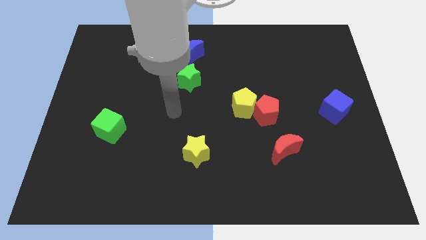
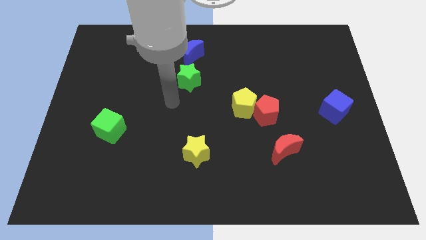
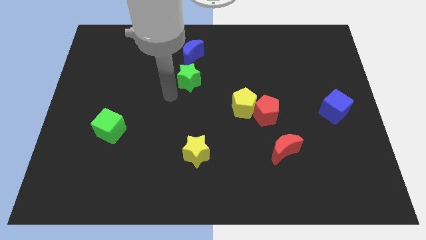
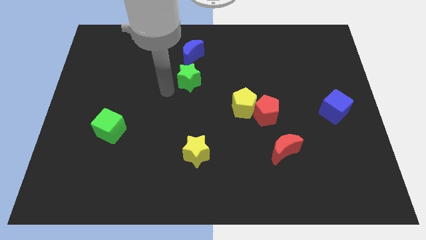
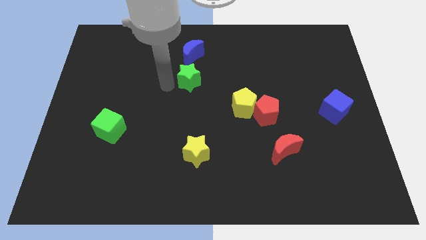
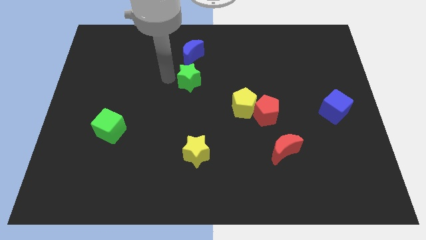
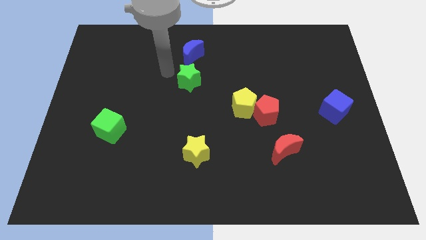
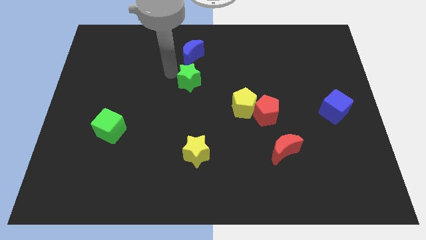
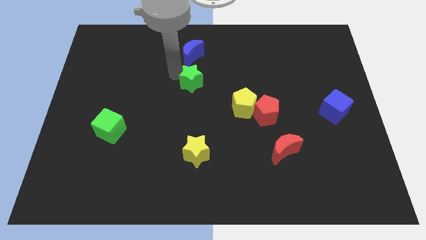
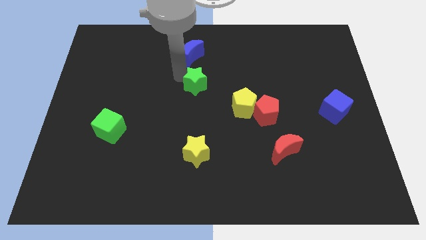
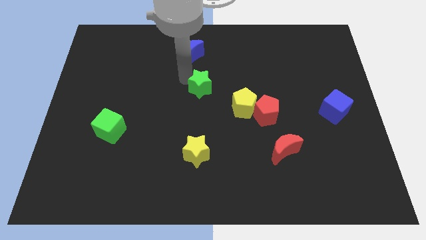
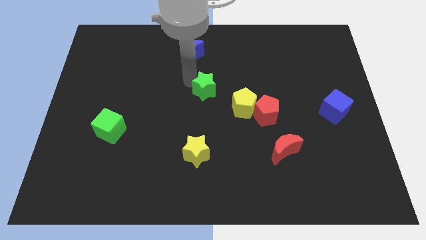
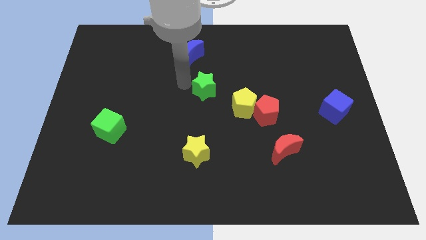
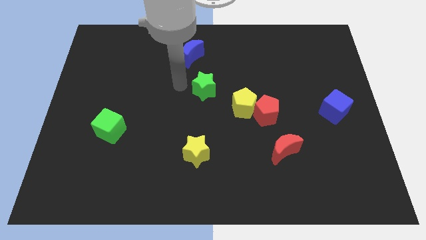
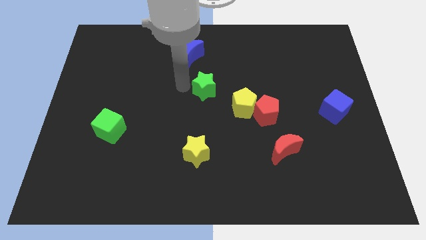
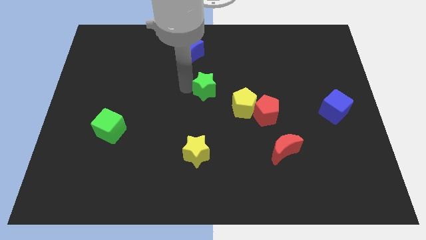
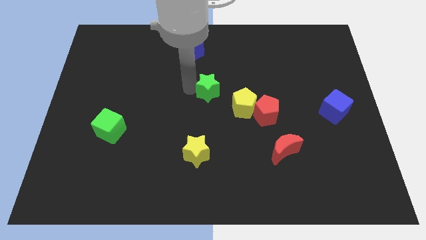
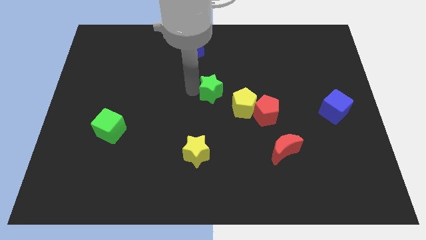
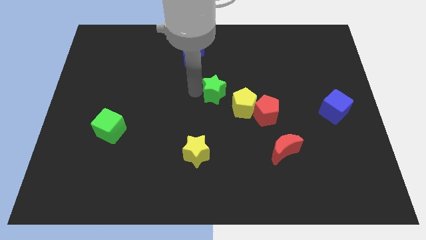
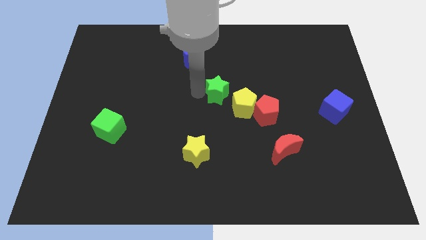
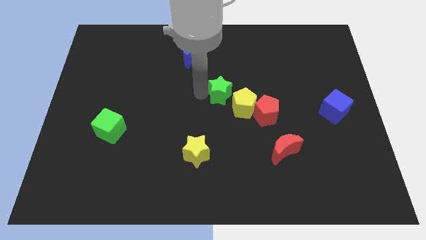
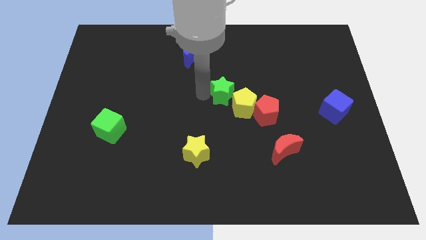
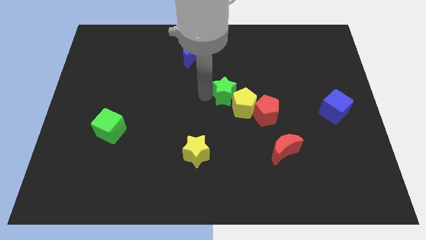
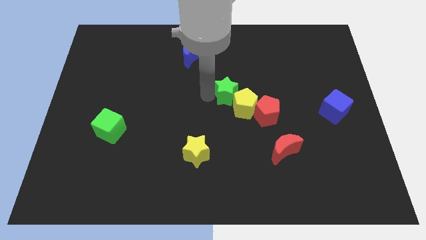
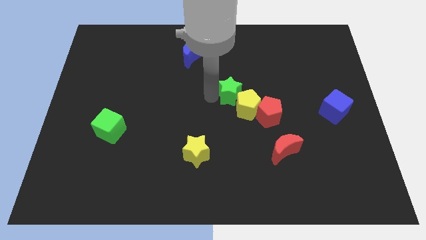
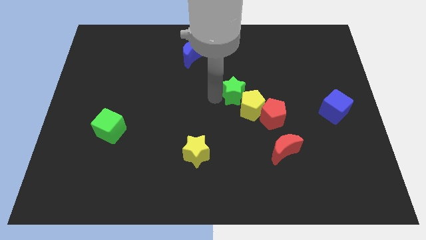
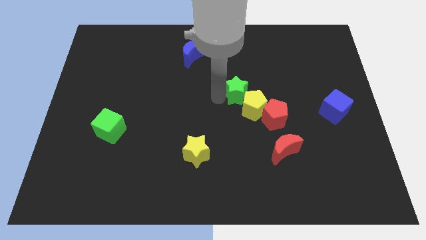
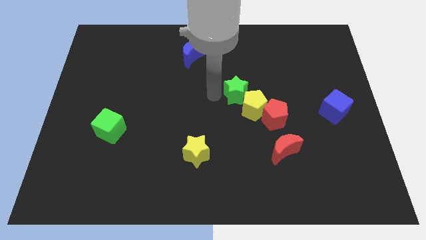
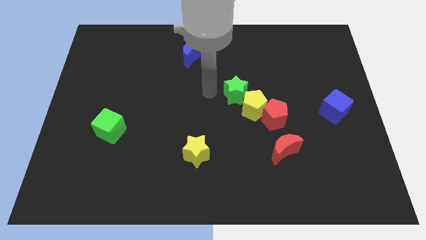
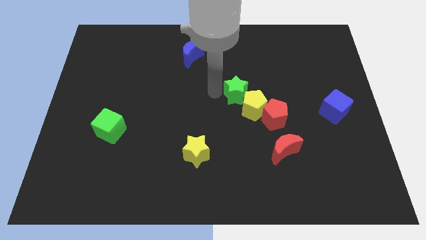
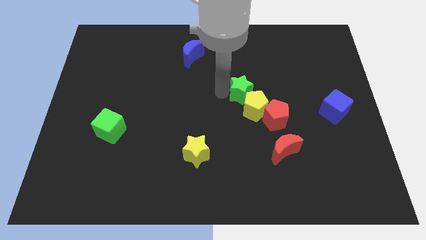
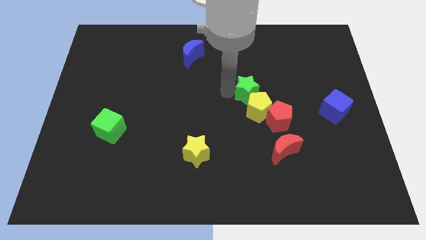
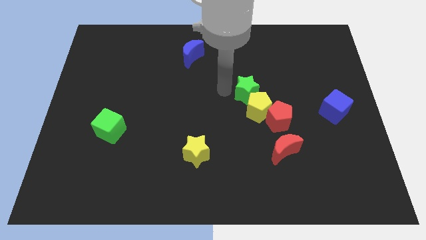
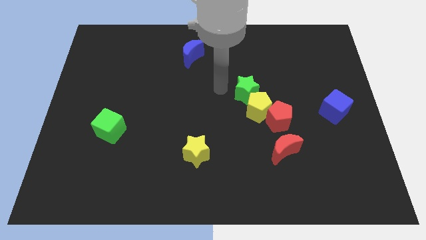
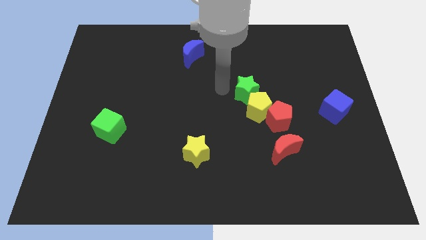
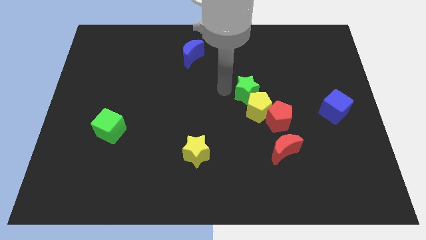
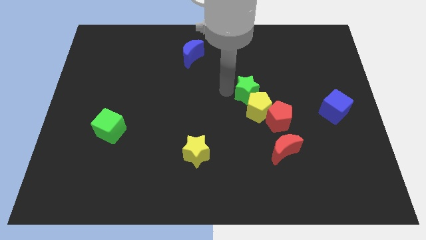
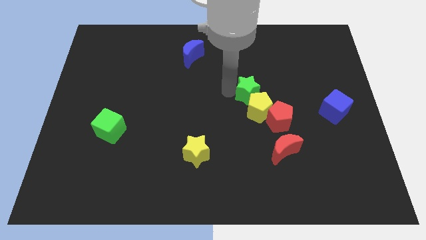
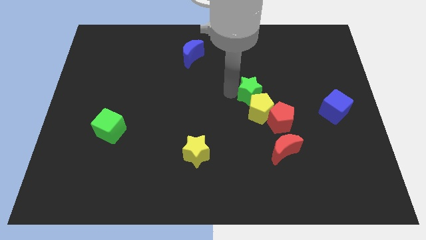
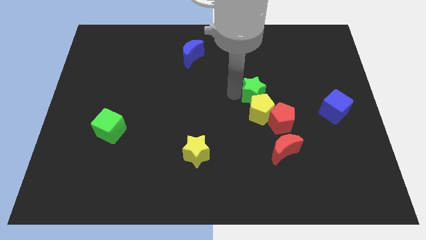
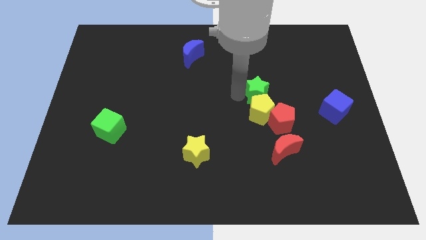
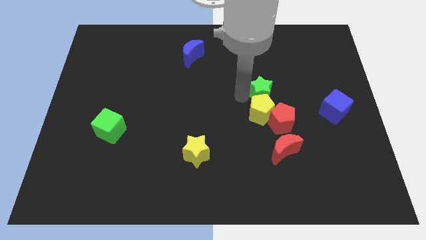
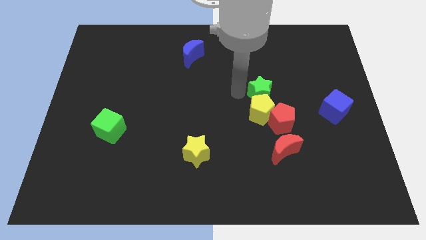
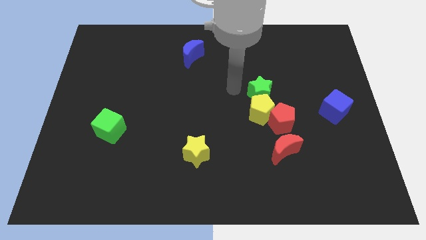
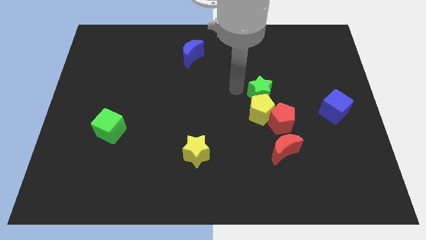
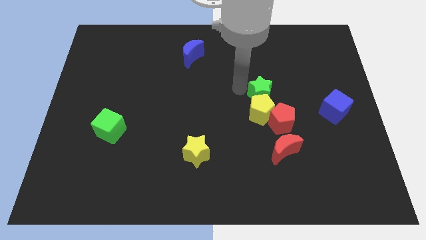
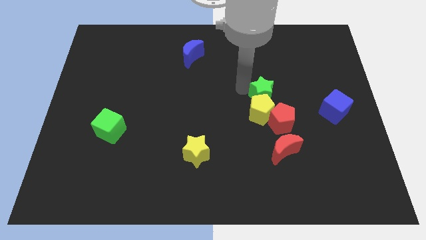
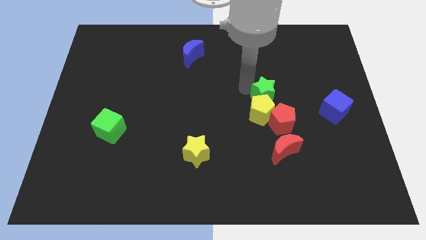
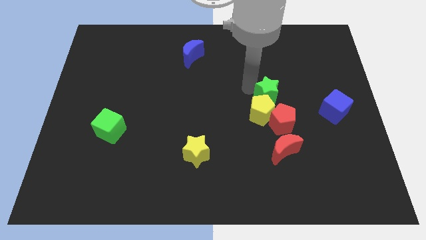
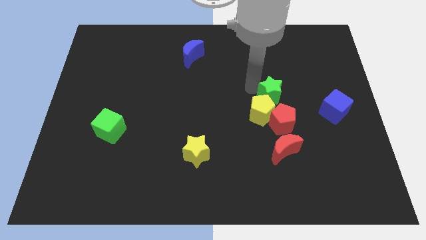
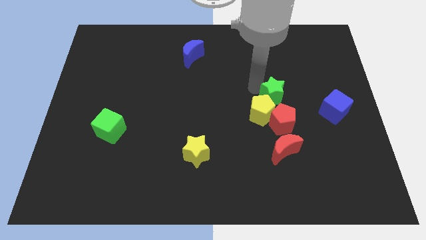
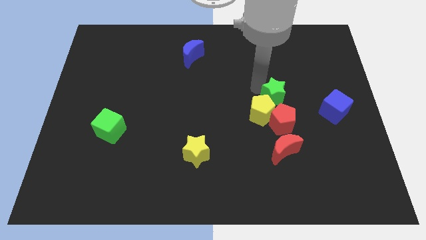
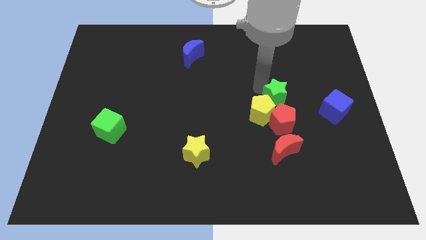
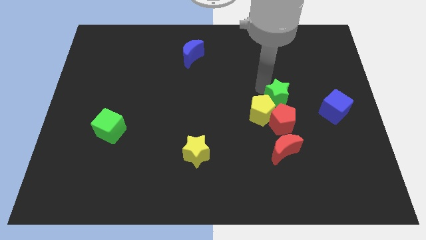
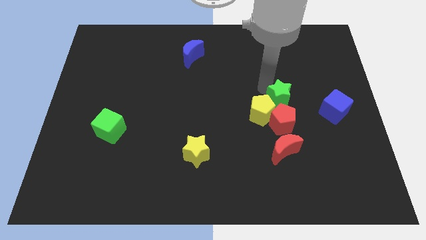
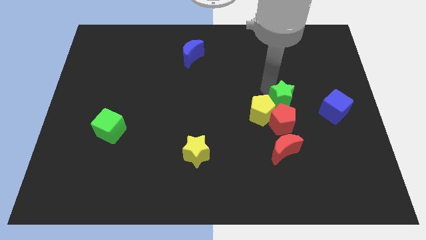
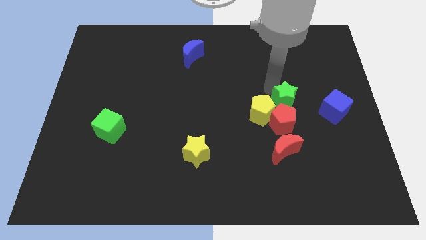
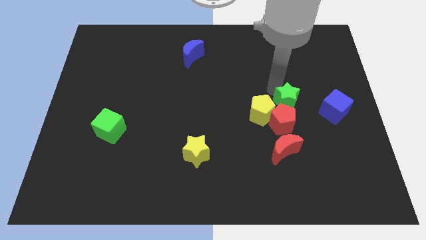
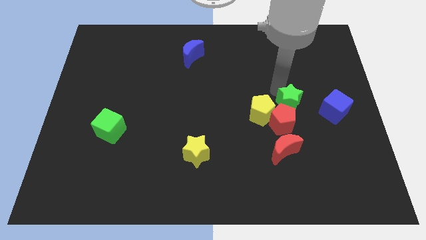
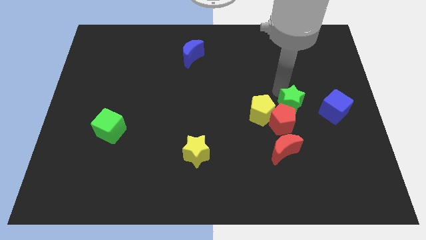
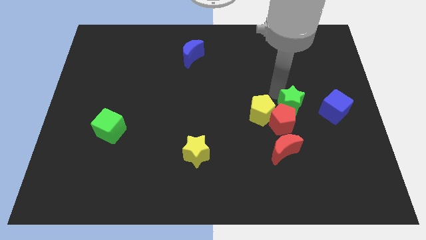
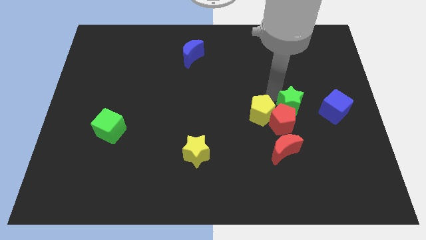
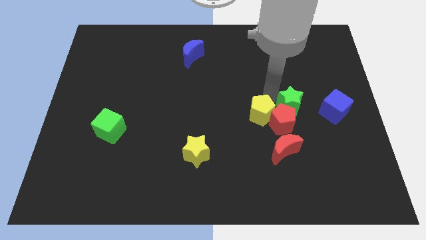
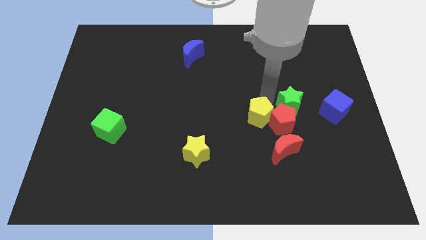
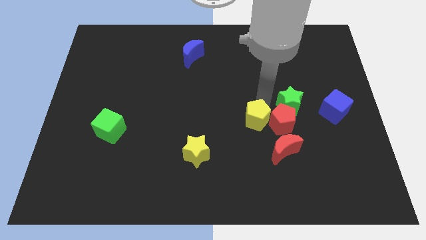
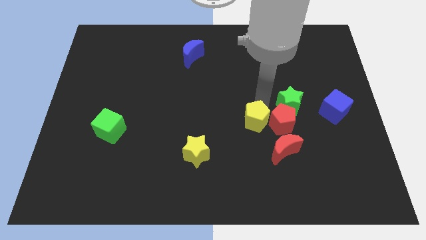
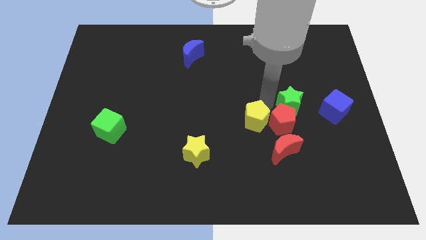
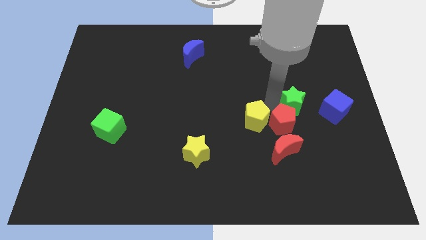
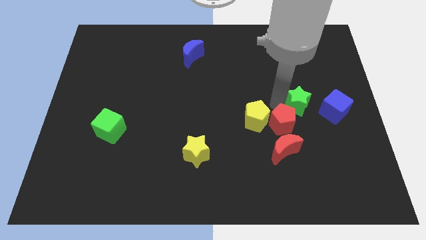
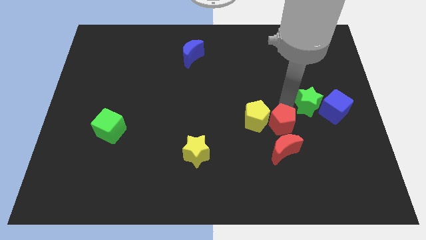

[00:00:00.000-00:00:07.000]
put the green star next to the blue cube
